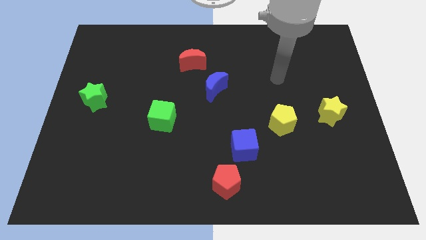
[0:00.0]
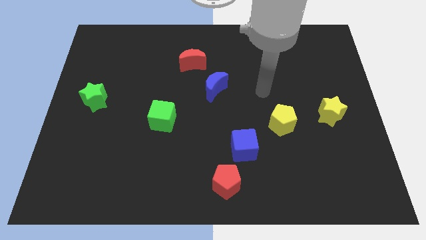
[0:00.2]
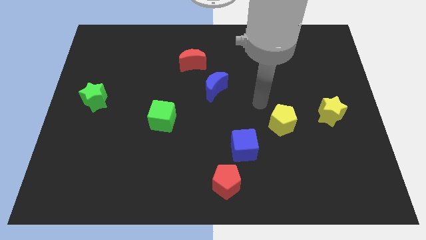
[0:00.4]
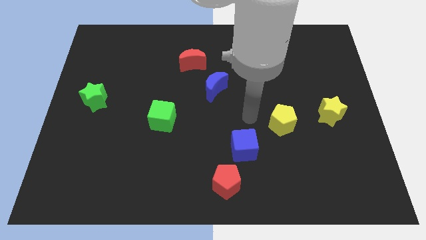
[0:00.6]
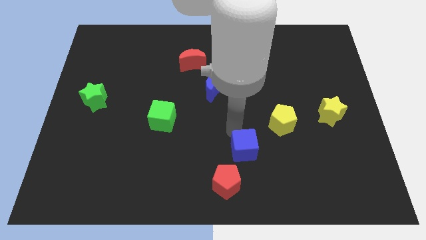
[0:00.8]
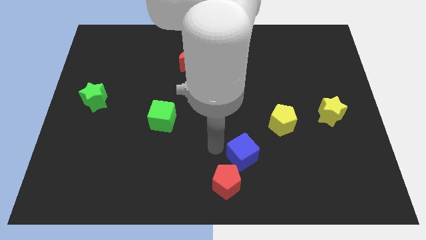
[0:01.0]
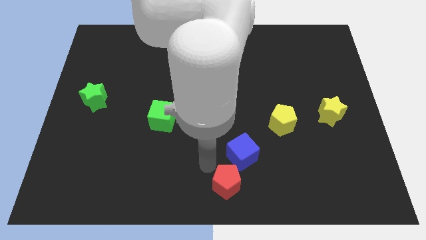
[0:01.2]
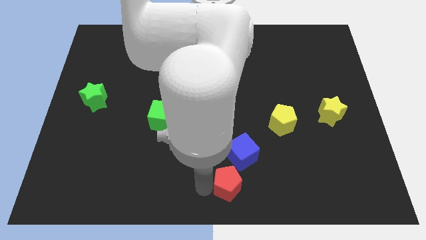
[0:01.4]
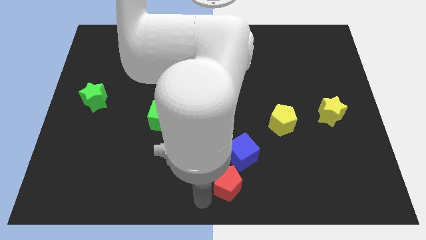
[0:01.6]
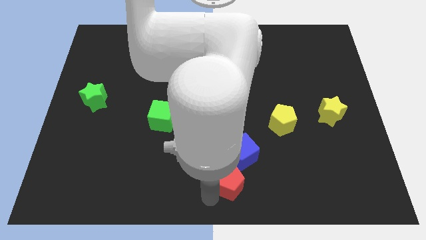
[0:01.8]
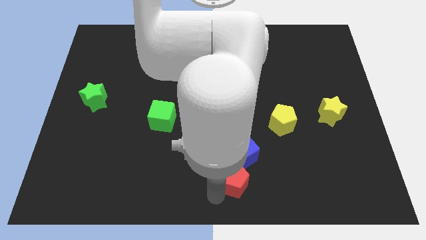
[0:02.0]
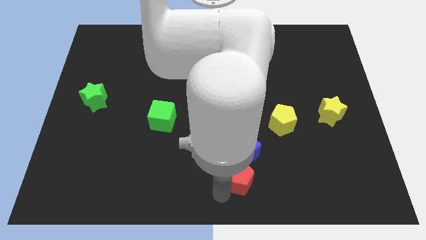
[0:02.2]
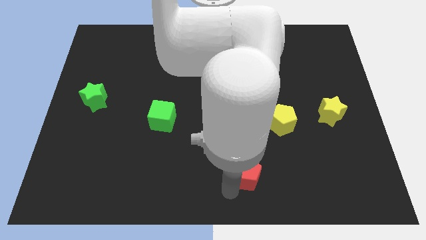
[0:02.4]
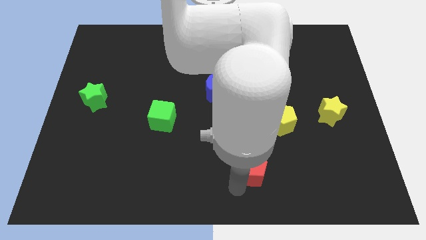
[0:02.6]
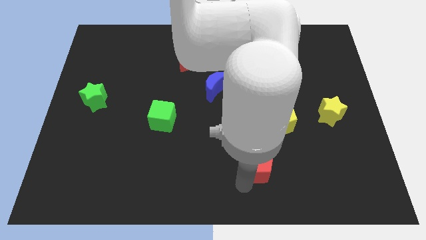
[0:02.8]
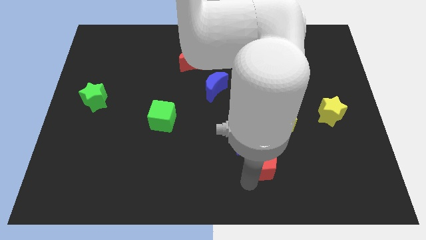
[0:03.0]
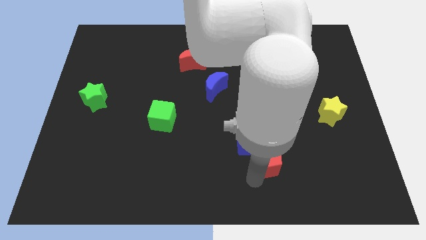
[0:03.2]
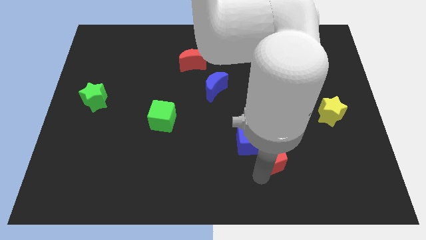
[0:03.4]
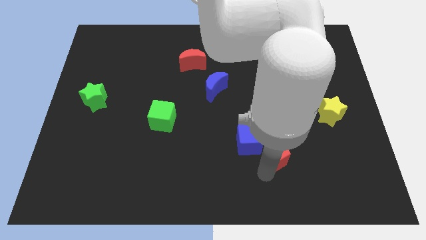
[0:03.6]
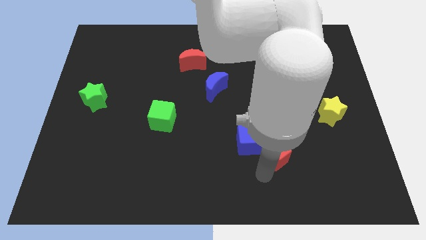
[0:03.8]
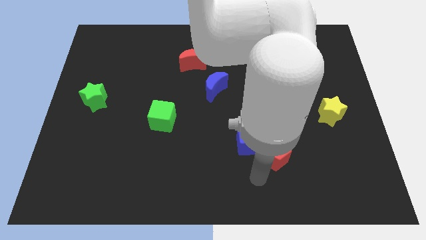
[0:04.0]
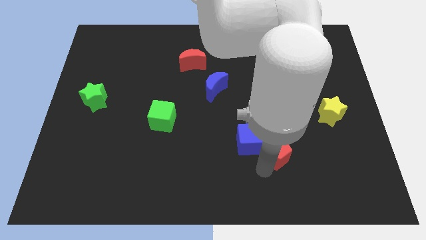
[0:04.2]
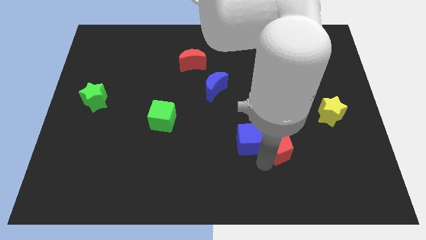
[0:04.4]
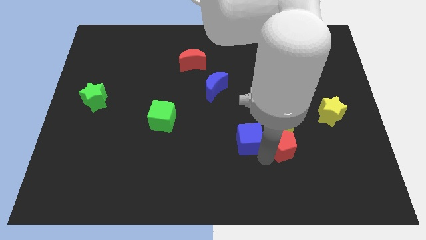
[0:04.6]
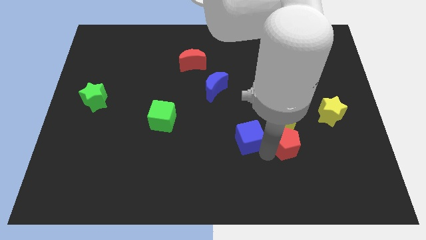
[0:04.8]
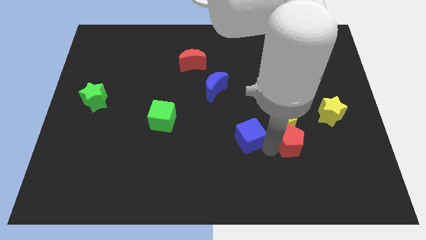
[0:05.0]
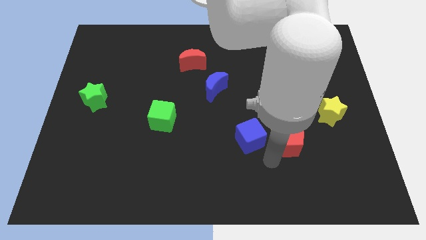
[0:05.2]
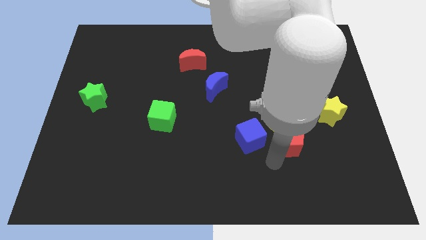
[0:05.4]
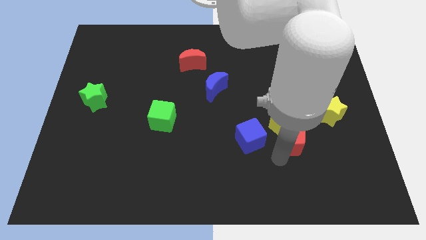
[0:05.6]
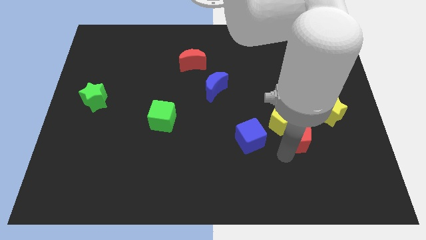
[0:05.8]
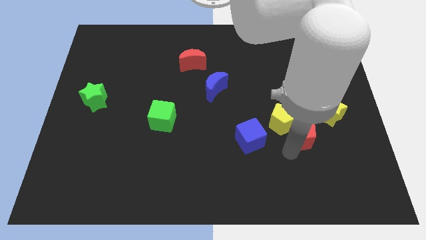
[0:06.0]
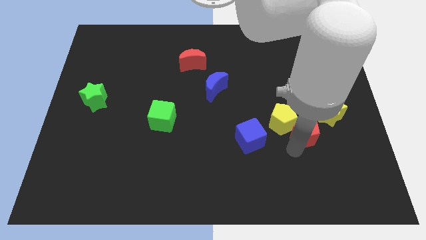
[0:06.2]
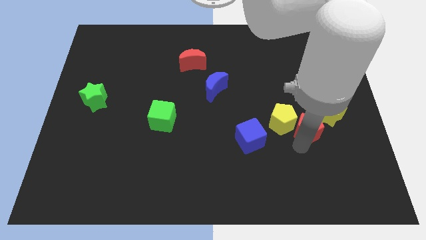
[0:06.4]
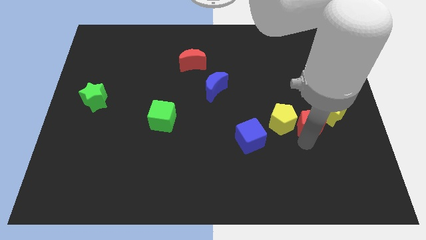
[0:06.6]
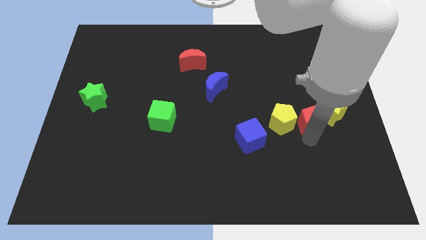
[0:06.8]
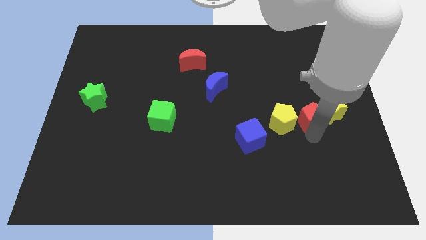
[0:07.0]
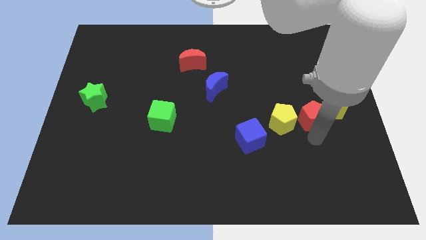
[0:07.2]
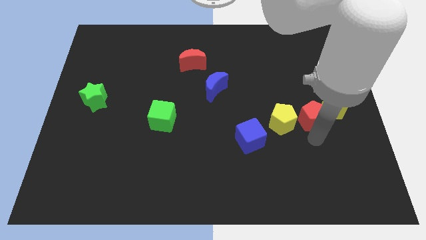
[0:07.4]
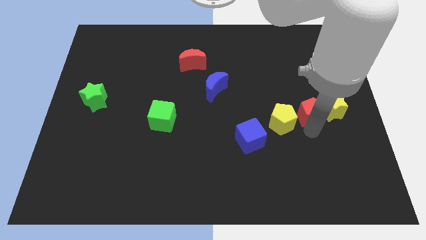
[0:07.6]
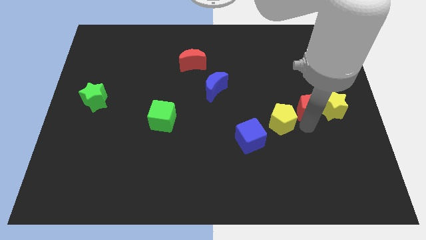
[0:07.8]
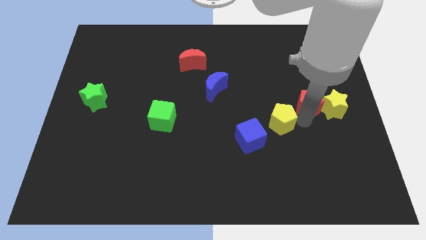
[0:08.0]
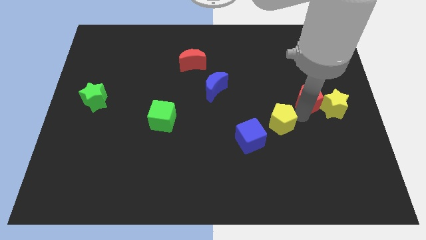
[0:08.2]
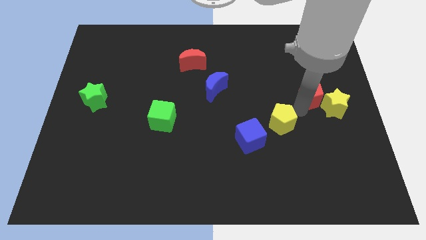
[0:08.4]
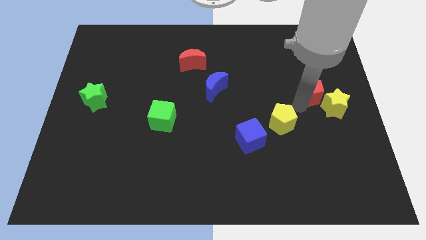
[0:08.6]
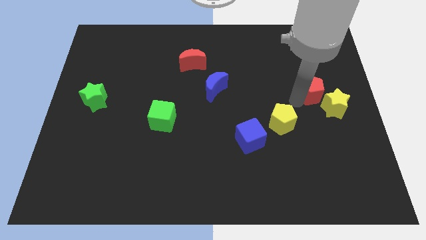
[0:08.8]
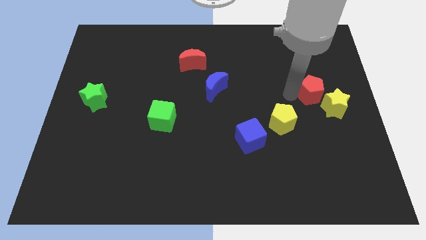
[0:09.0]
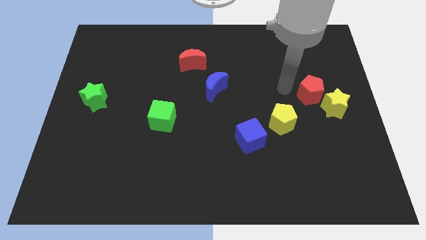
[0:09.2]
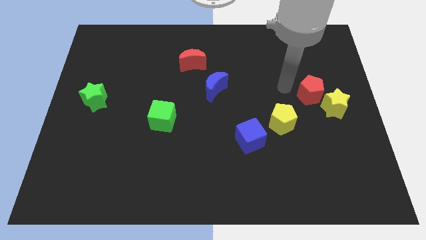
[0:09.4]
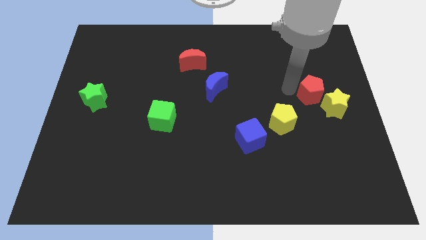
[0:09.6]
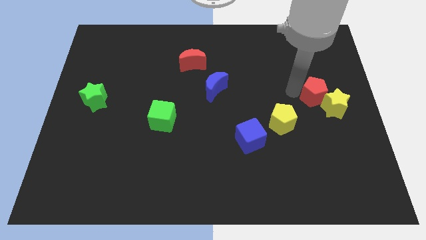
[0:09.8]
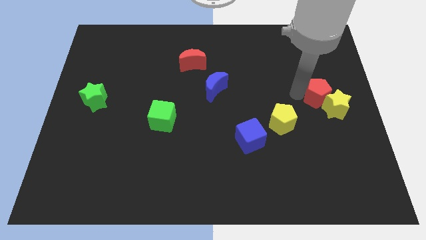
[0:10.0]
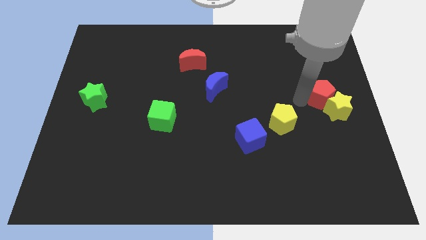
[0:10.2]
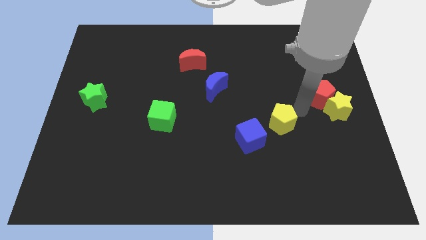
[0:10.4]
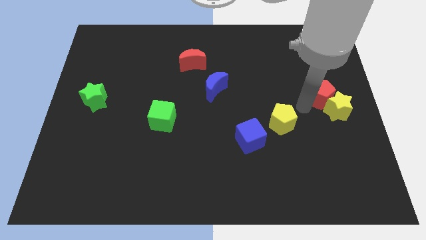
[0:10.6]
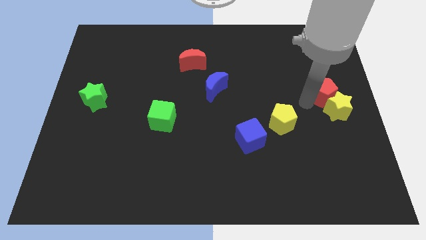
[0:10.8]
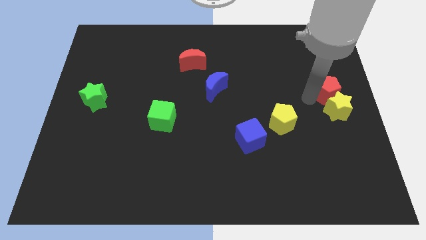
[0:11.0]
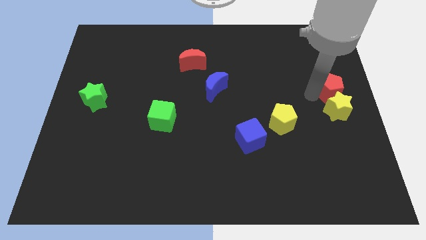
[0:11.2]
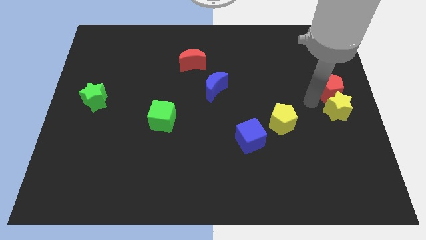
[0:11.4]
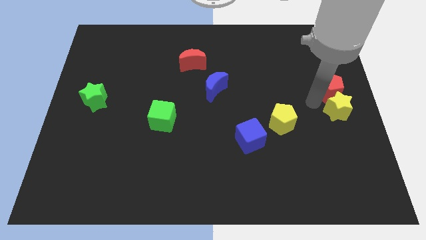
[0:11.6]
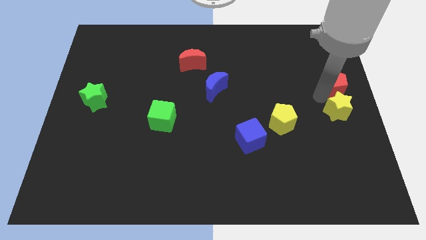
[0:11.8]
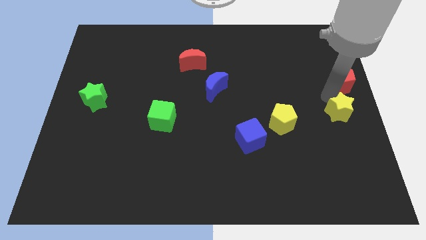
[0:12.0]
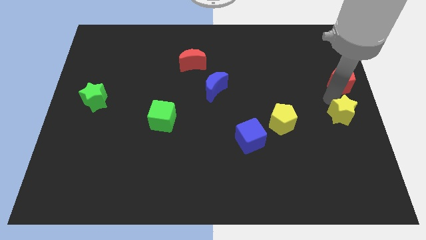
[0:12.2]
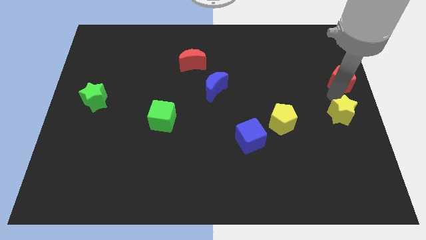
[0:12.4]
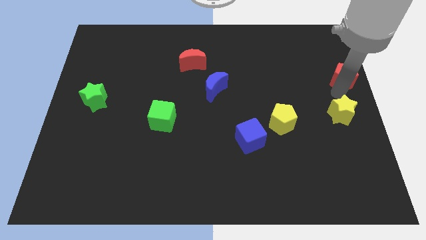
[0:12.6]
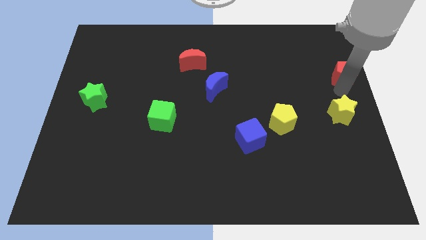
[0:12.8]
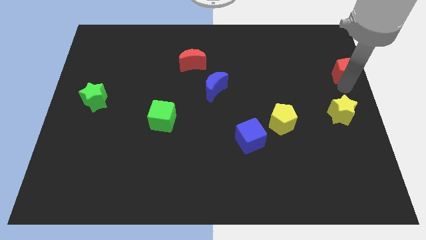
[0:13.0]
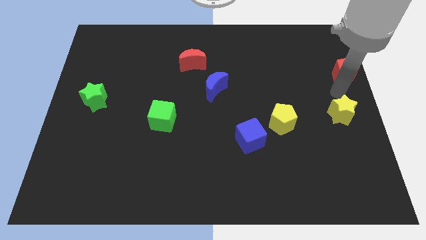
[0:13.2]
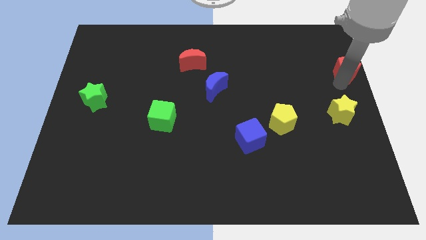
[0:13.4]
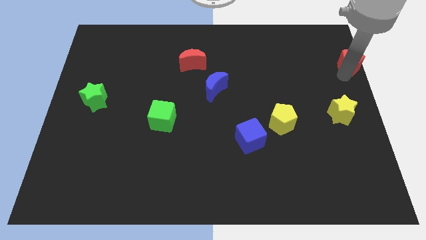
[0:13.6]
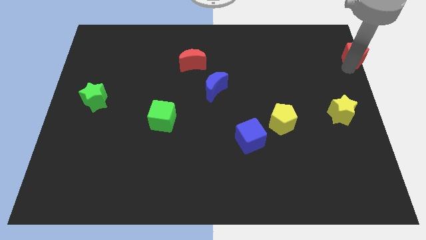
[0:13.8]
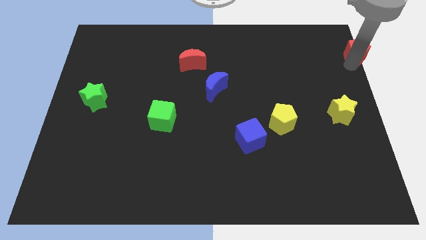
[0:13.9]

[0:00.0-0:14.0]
move the red pentagon to the top right

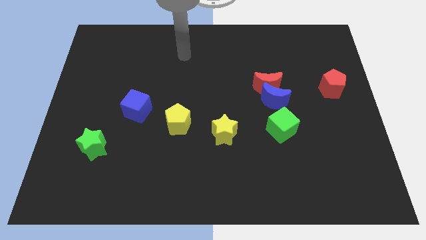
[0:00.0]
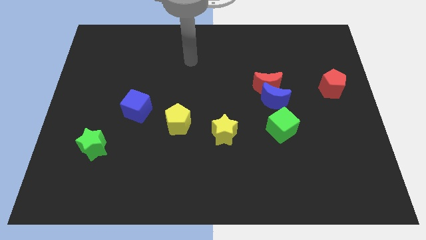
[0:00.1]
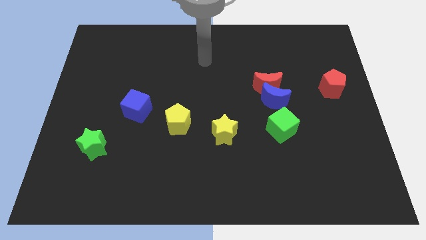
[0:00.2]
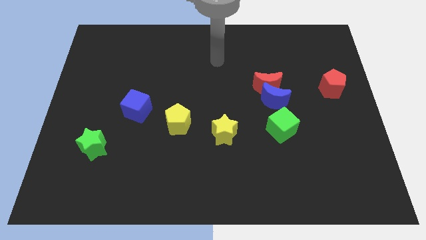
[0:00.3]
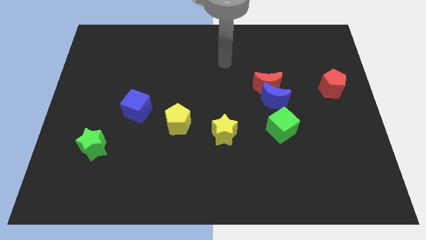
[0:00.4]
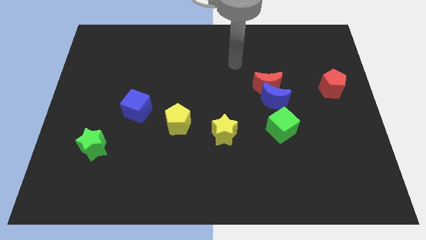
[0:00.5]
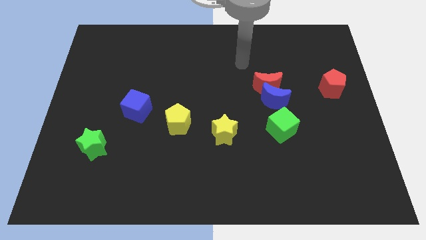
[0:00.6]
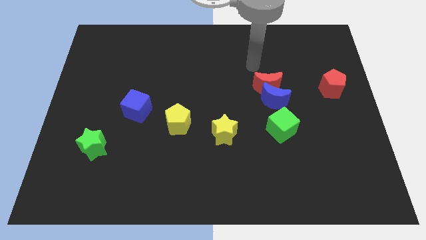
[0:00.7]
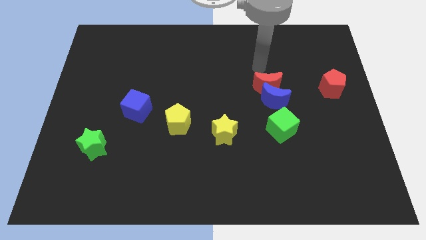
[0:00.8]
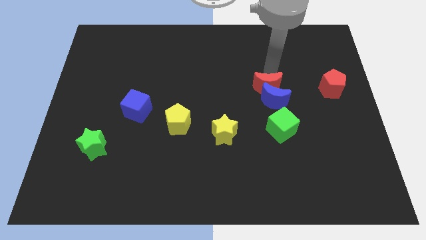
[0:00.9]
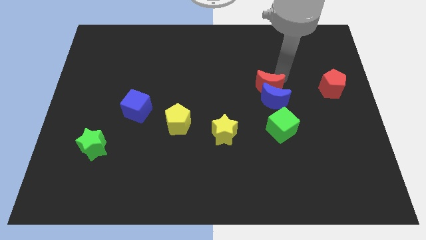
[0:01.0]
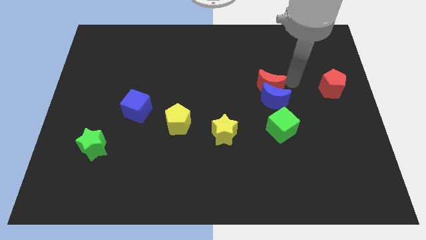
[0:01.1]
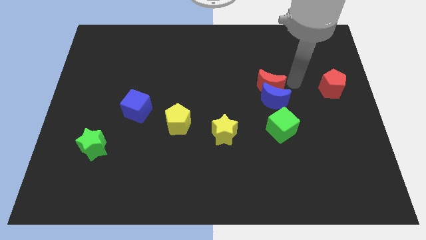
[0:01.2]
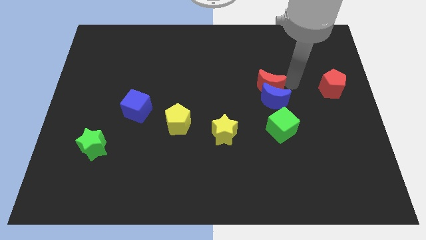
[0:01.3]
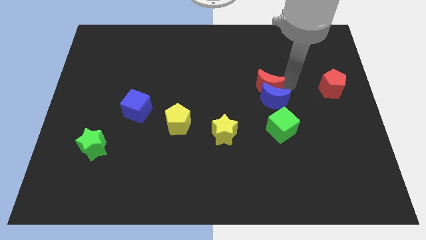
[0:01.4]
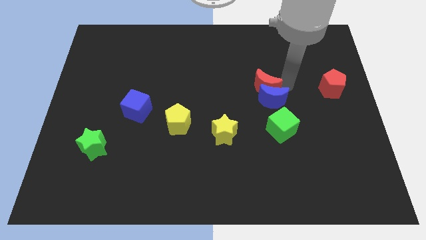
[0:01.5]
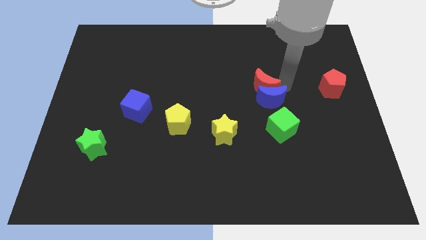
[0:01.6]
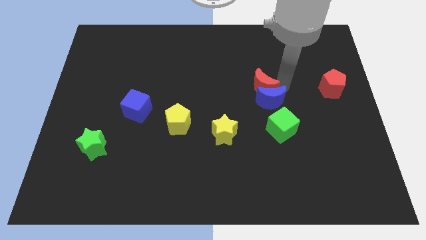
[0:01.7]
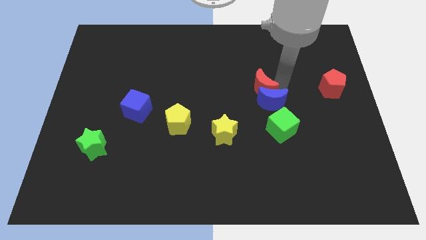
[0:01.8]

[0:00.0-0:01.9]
put the red moon to the center of the board
